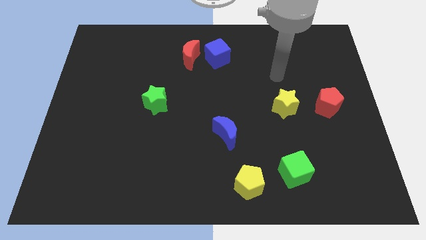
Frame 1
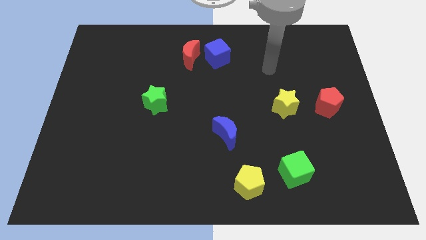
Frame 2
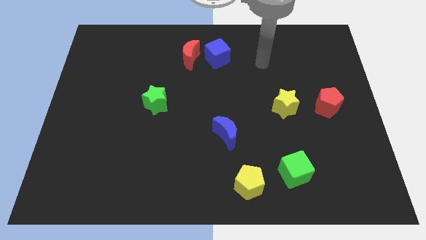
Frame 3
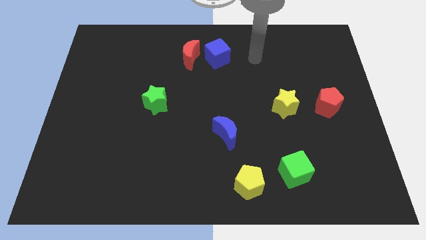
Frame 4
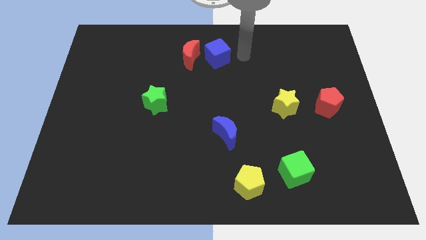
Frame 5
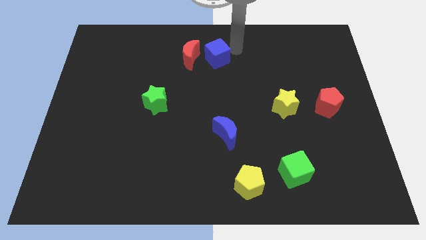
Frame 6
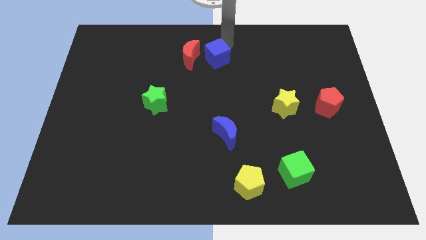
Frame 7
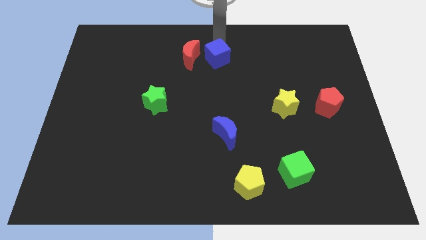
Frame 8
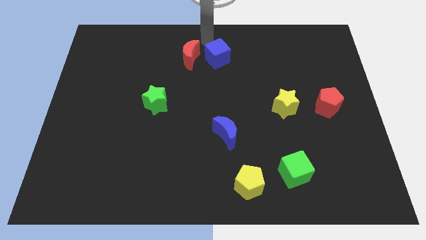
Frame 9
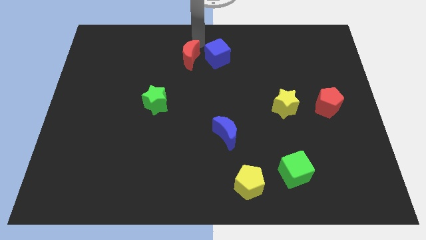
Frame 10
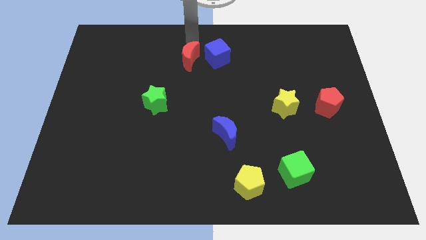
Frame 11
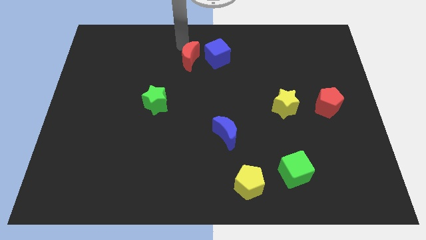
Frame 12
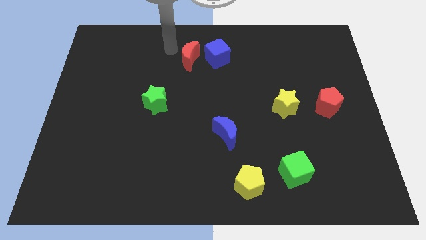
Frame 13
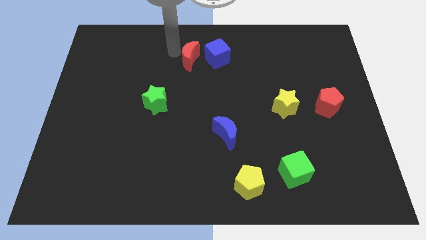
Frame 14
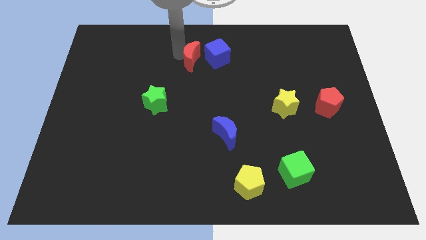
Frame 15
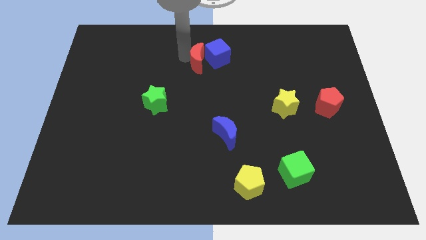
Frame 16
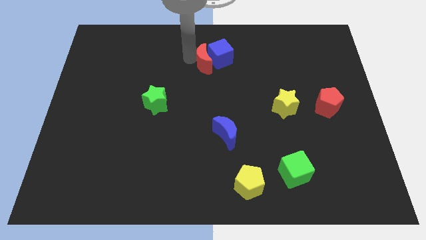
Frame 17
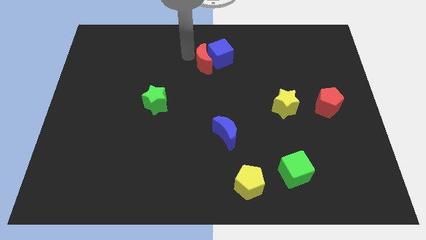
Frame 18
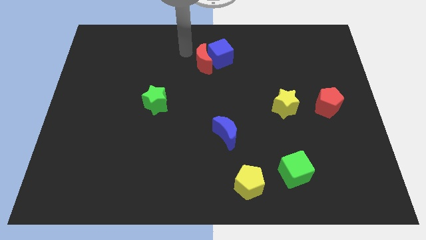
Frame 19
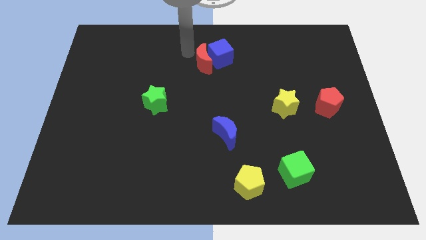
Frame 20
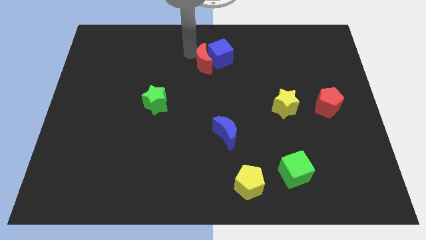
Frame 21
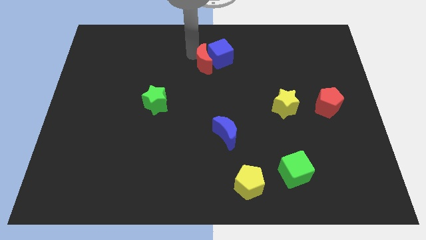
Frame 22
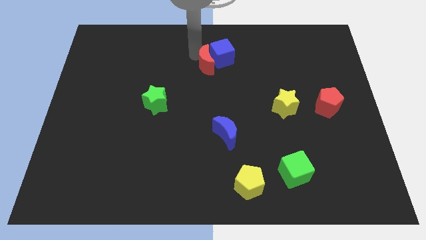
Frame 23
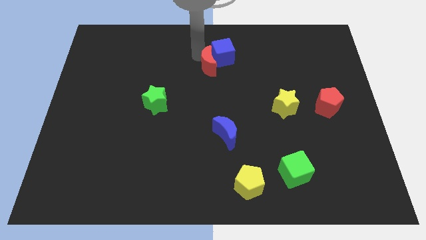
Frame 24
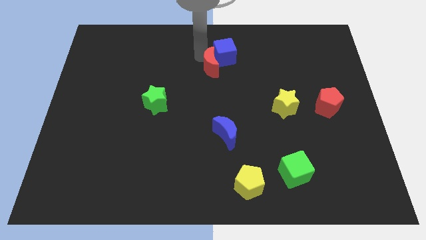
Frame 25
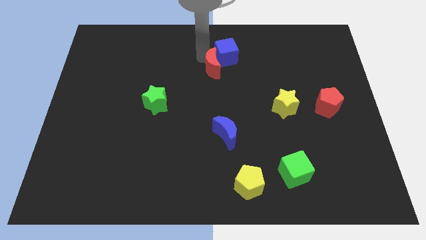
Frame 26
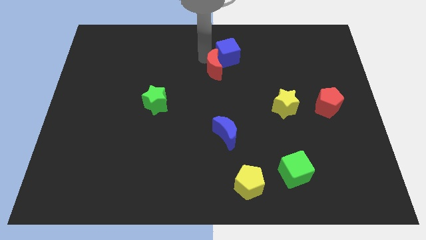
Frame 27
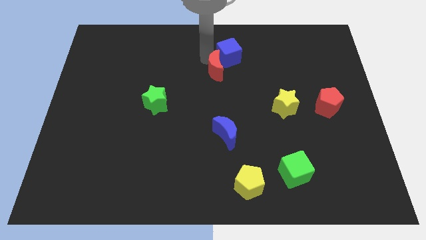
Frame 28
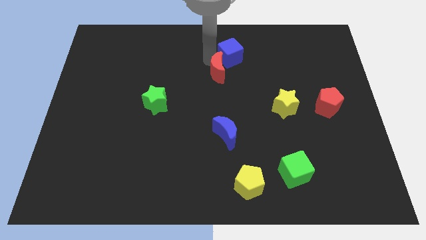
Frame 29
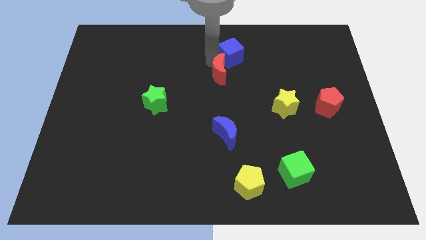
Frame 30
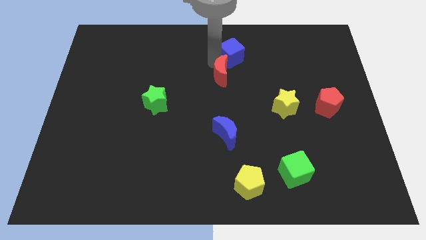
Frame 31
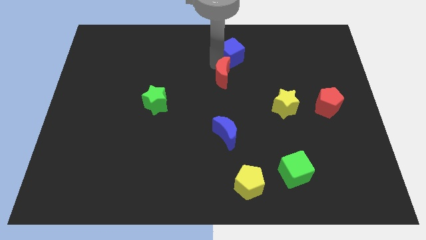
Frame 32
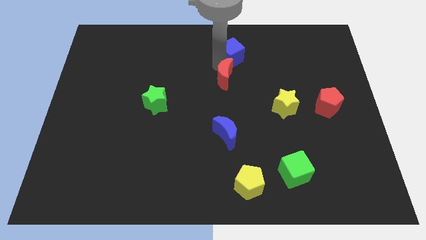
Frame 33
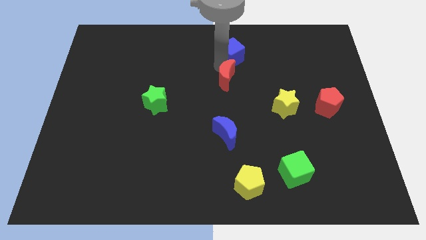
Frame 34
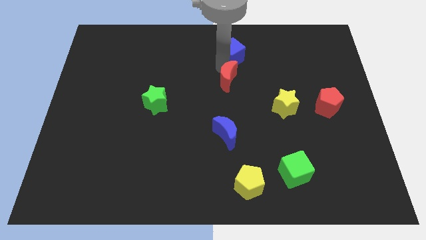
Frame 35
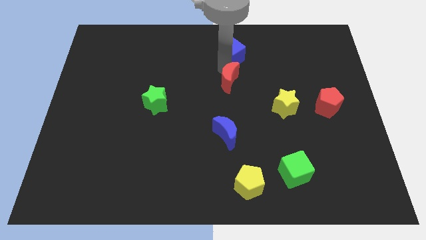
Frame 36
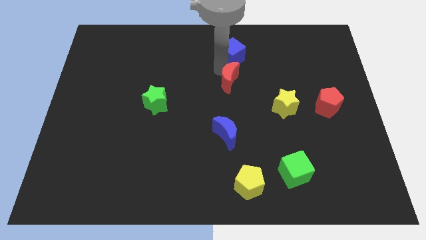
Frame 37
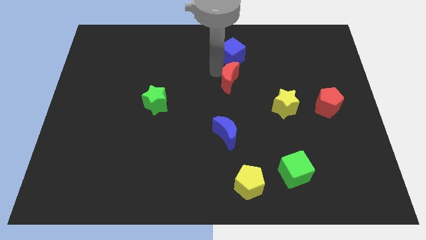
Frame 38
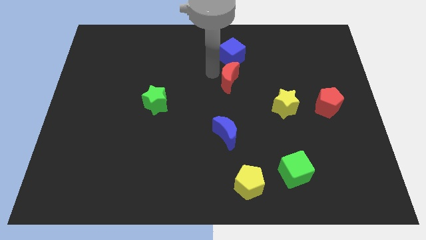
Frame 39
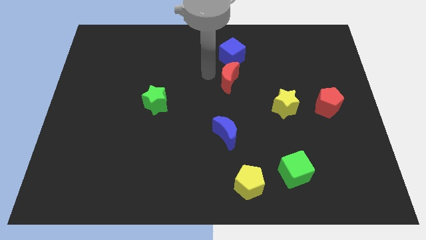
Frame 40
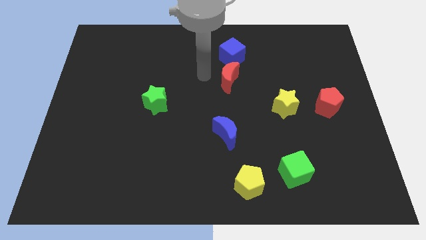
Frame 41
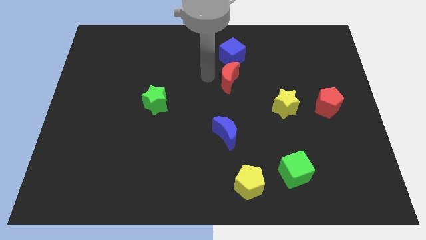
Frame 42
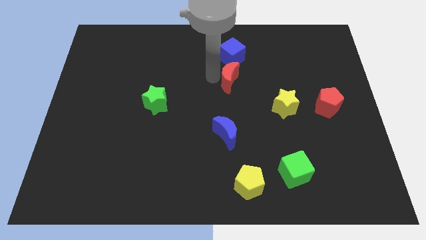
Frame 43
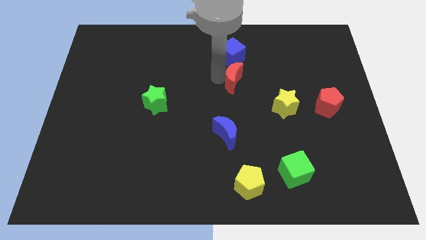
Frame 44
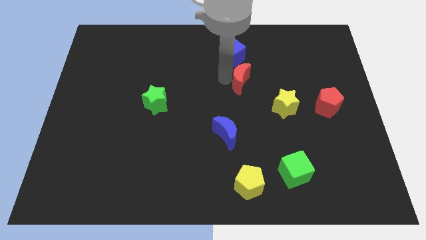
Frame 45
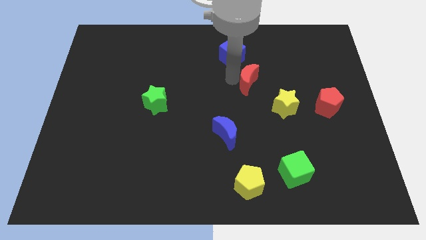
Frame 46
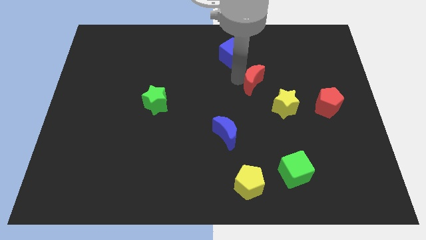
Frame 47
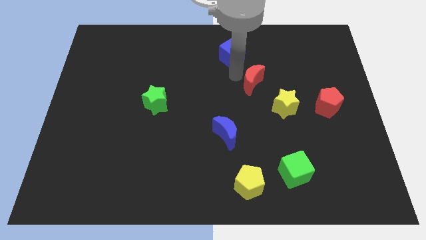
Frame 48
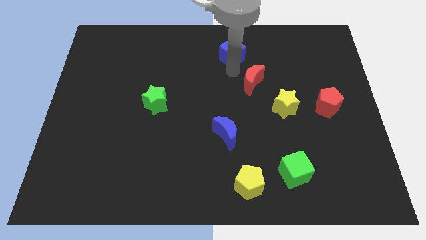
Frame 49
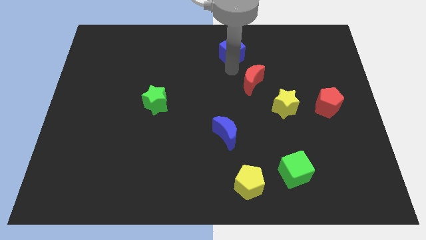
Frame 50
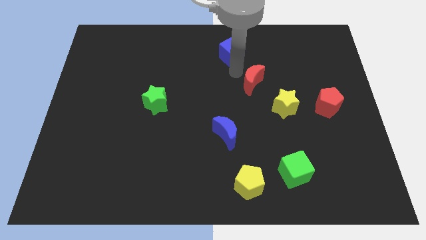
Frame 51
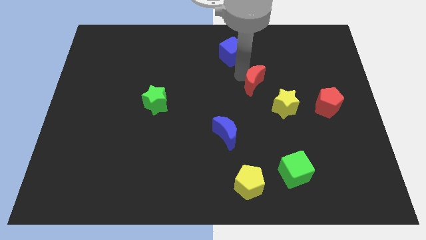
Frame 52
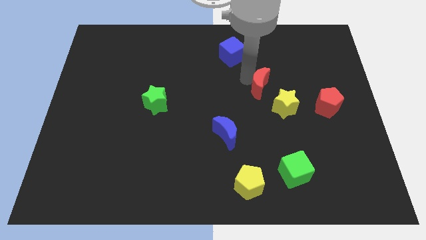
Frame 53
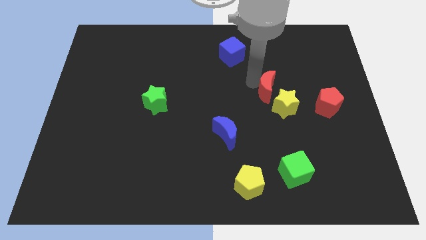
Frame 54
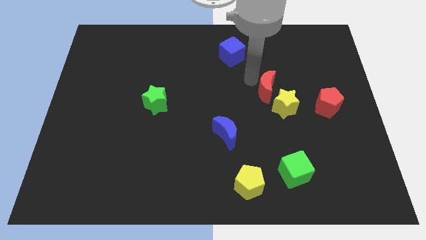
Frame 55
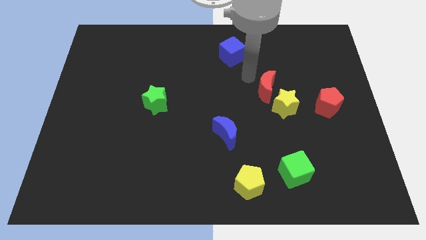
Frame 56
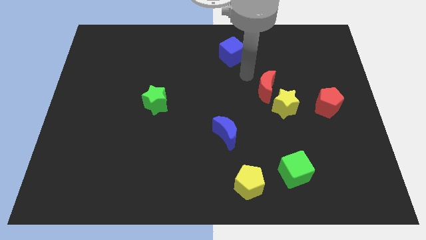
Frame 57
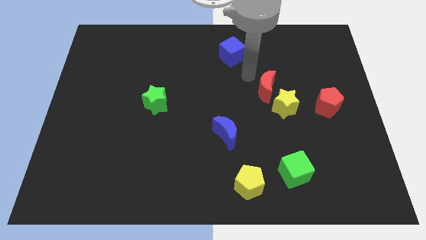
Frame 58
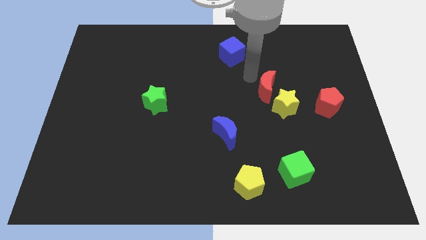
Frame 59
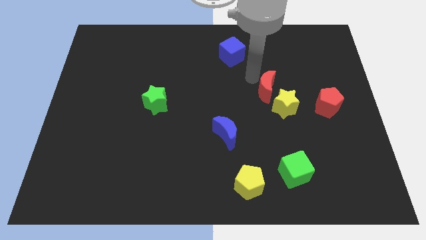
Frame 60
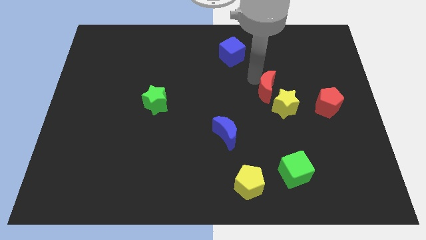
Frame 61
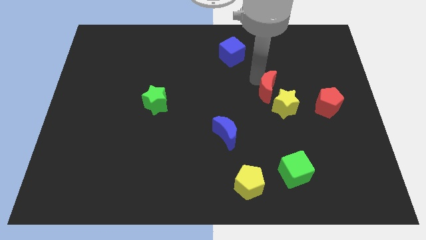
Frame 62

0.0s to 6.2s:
put the red moon to the yellow star

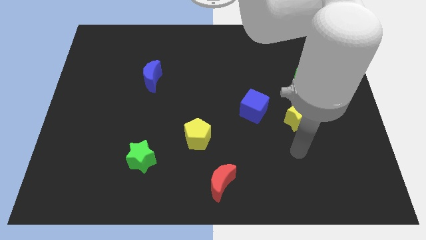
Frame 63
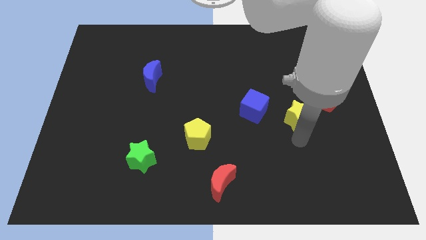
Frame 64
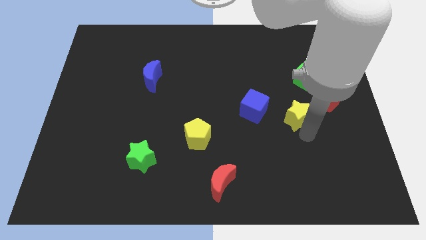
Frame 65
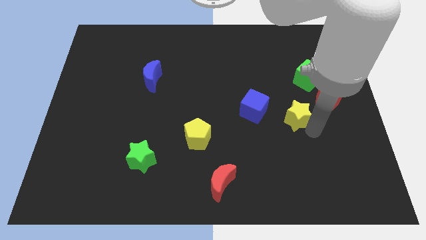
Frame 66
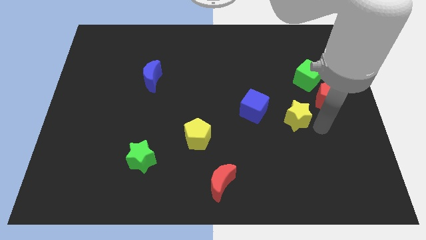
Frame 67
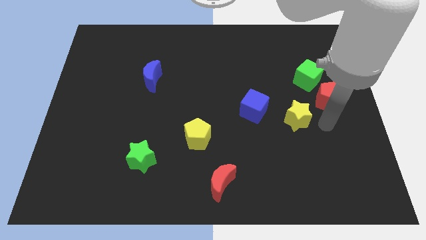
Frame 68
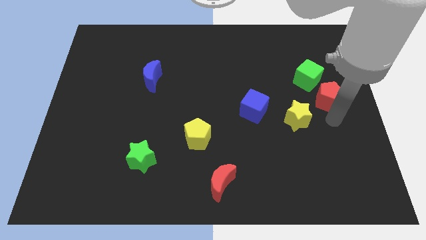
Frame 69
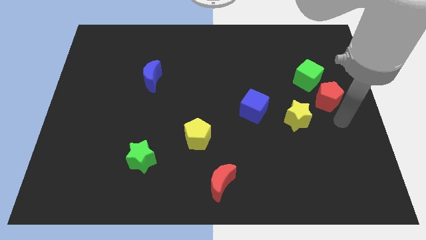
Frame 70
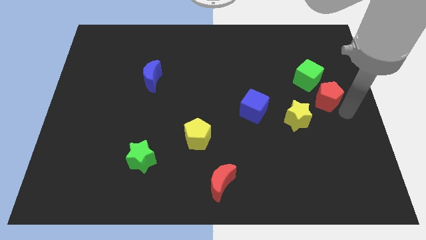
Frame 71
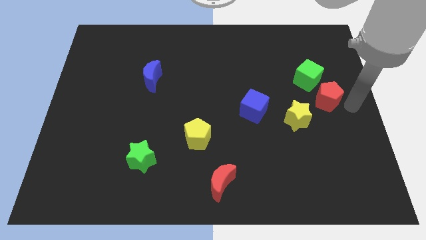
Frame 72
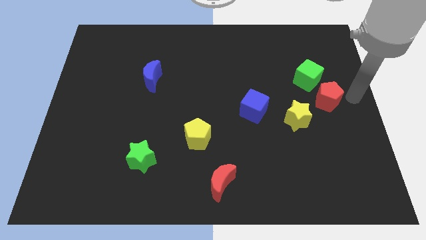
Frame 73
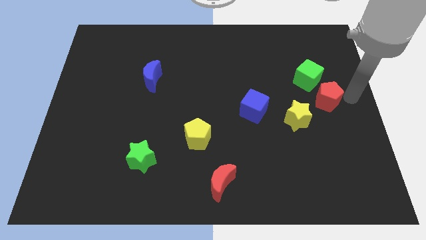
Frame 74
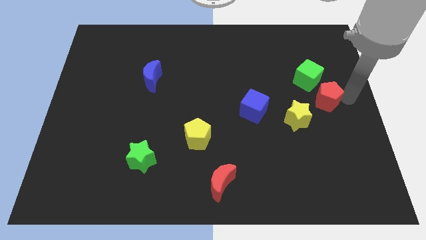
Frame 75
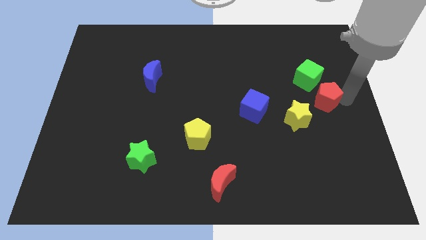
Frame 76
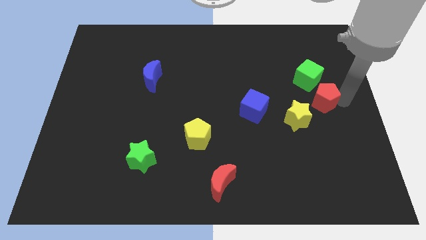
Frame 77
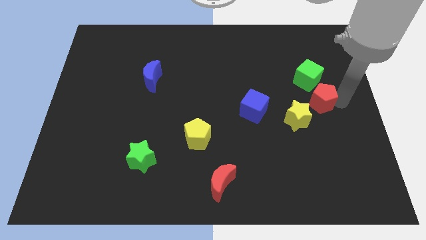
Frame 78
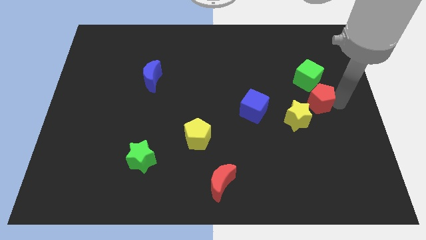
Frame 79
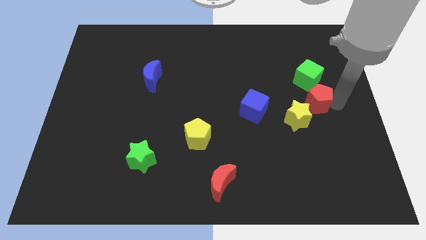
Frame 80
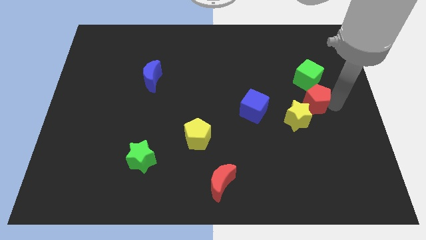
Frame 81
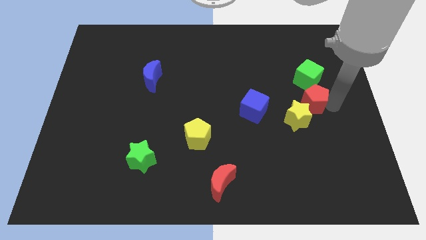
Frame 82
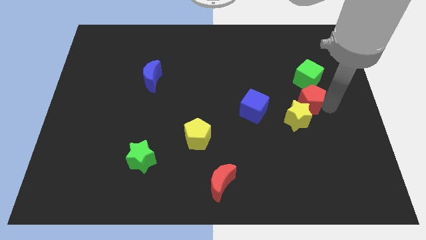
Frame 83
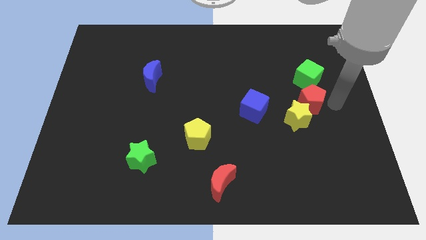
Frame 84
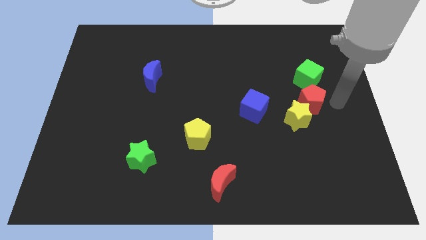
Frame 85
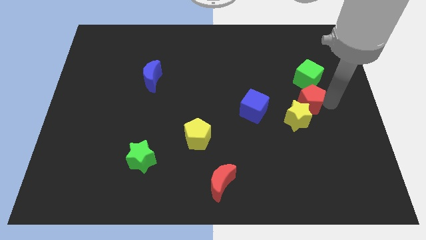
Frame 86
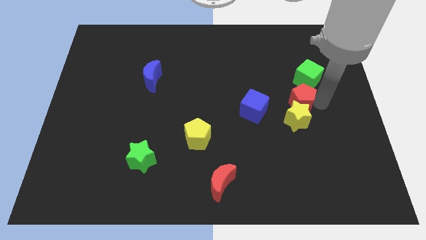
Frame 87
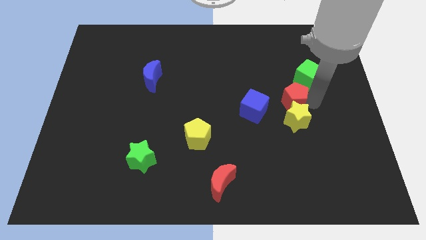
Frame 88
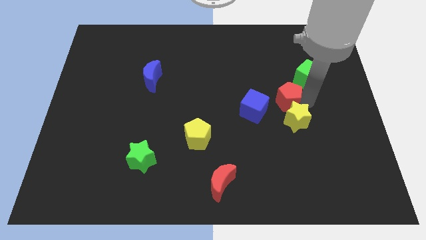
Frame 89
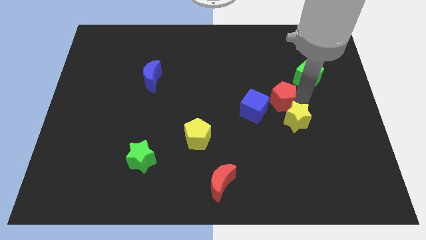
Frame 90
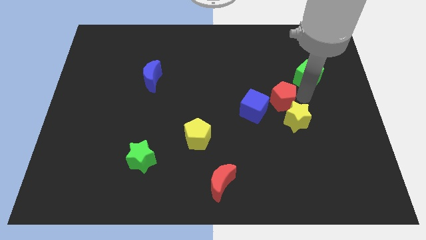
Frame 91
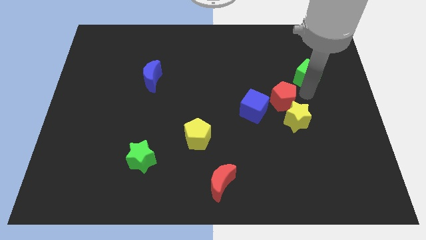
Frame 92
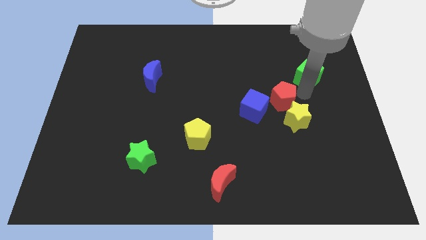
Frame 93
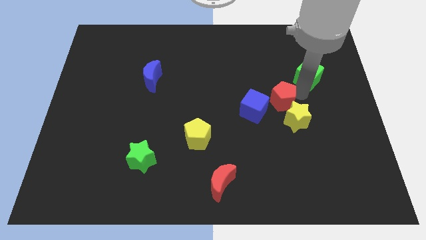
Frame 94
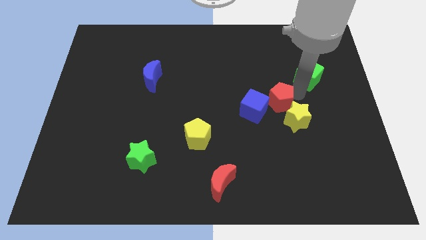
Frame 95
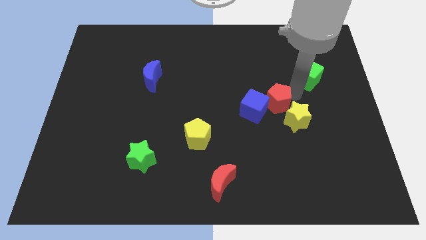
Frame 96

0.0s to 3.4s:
push the red pentagon to the blue cube
